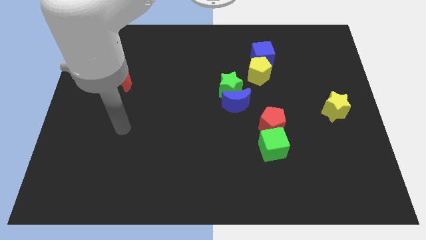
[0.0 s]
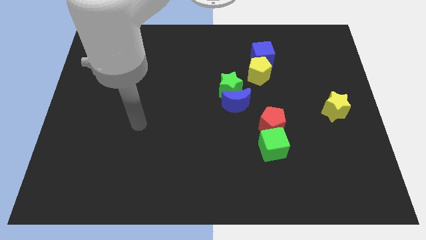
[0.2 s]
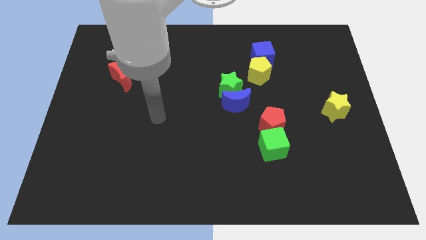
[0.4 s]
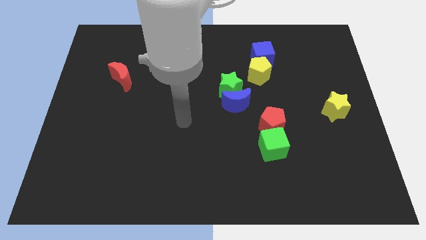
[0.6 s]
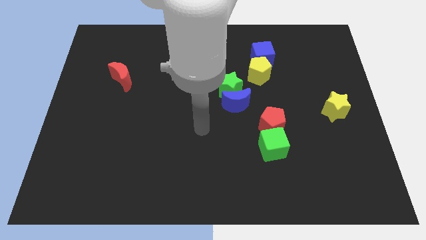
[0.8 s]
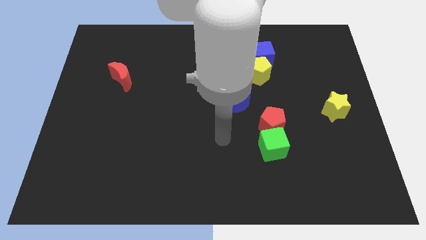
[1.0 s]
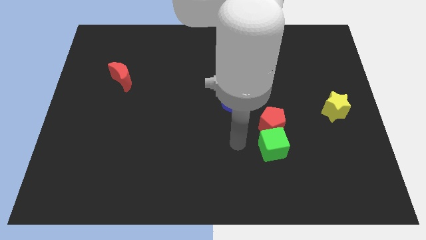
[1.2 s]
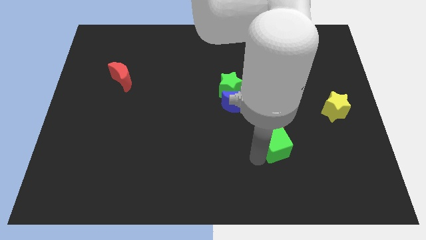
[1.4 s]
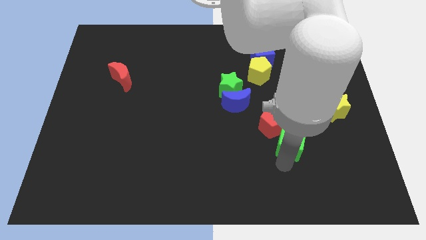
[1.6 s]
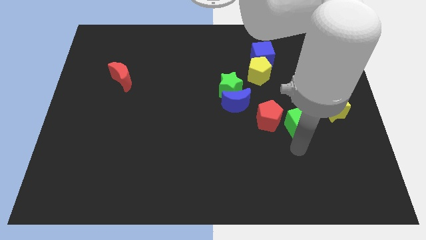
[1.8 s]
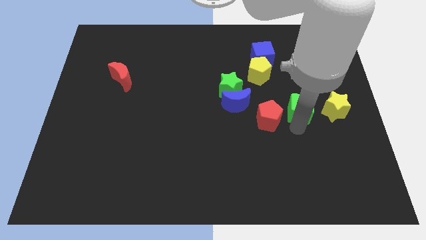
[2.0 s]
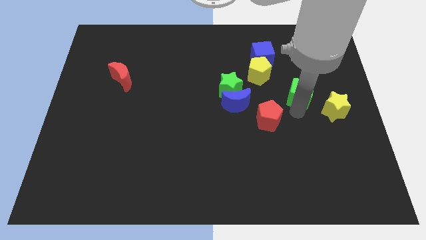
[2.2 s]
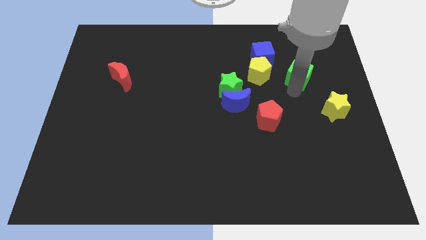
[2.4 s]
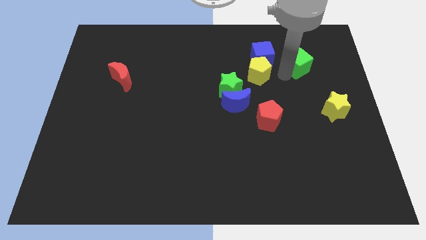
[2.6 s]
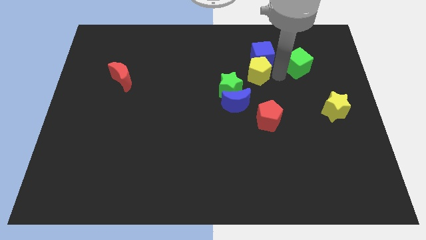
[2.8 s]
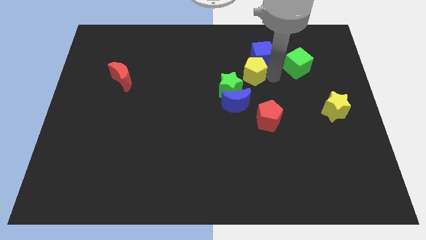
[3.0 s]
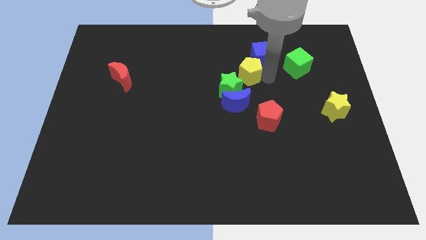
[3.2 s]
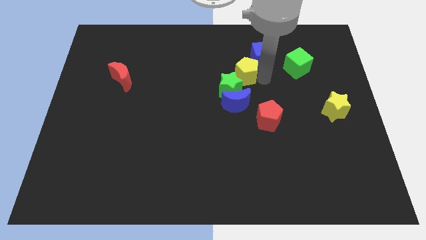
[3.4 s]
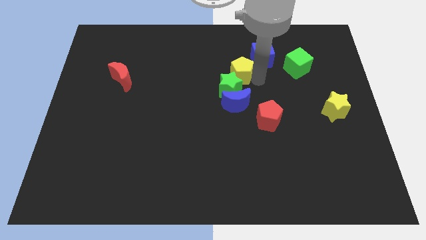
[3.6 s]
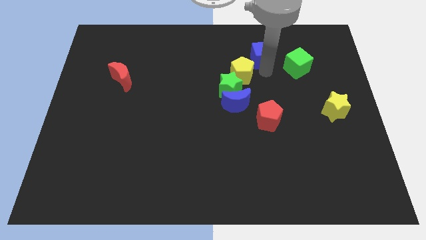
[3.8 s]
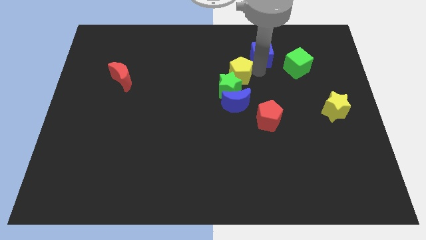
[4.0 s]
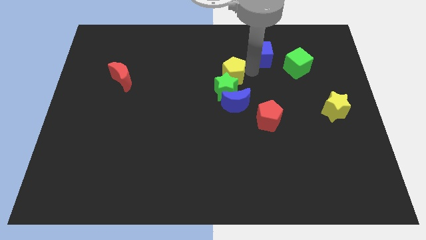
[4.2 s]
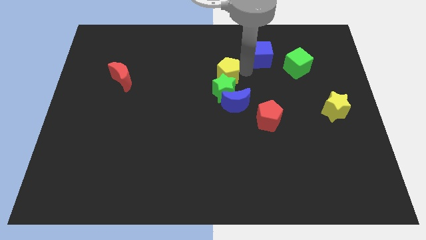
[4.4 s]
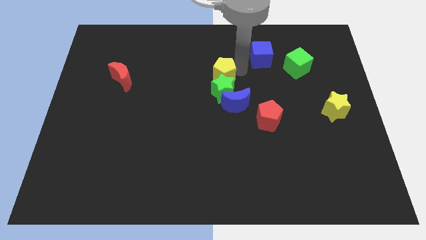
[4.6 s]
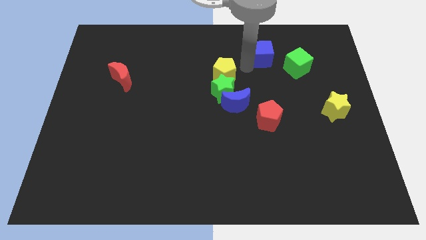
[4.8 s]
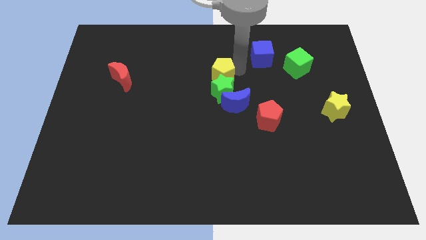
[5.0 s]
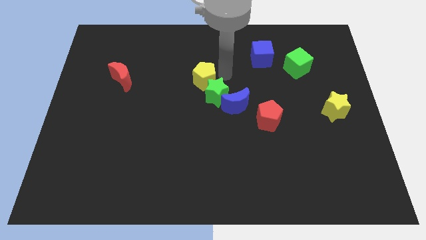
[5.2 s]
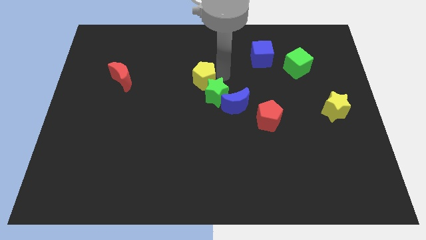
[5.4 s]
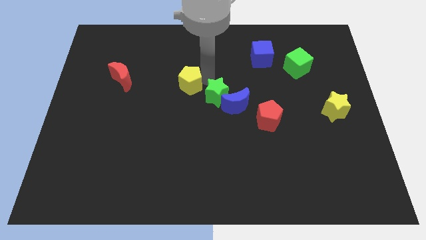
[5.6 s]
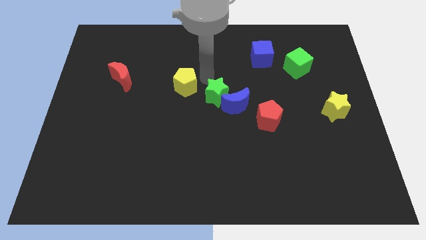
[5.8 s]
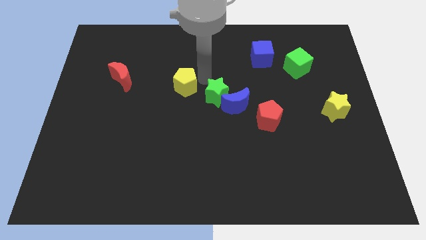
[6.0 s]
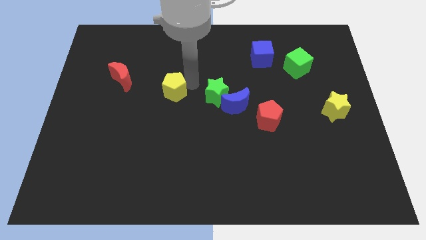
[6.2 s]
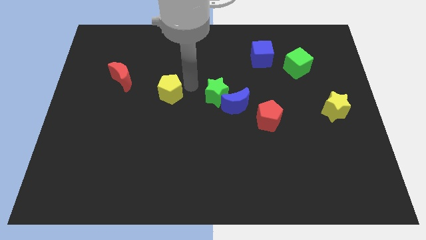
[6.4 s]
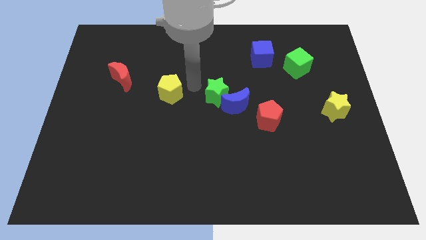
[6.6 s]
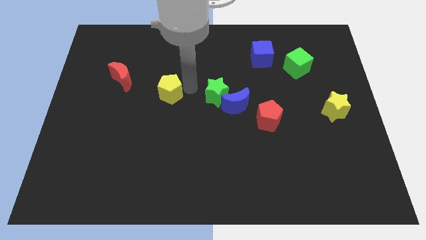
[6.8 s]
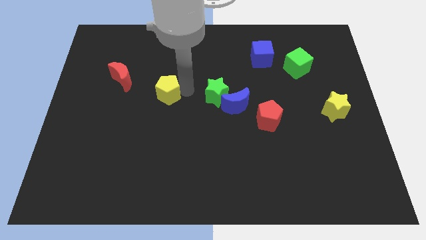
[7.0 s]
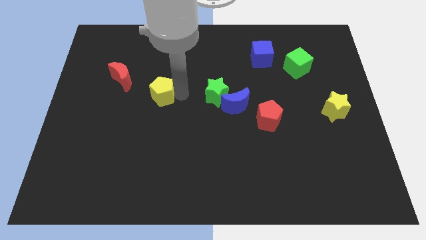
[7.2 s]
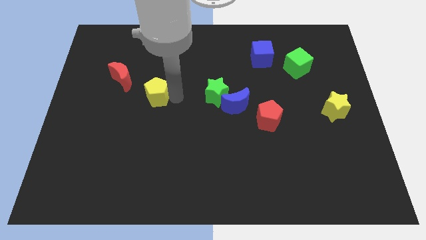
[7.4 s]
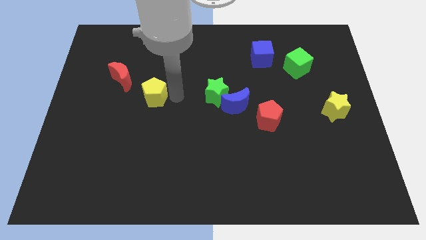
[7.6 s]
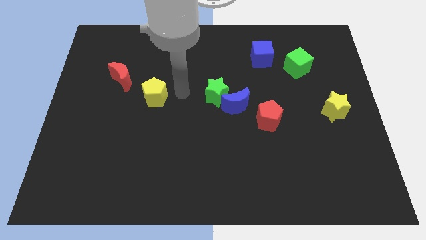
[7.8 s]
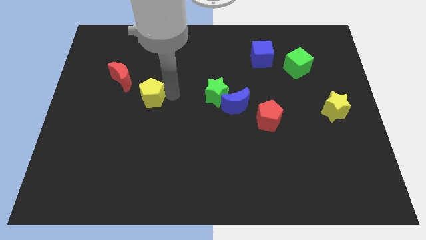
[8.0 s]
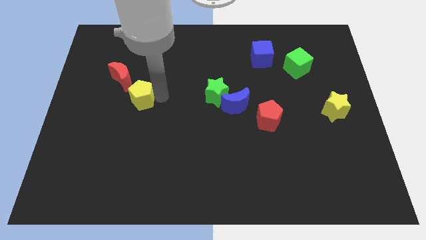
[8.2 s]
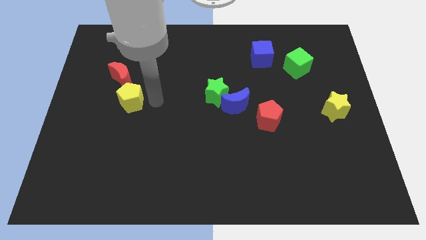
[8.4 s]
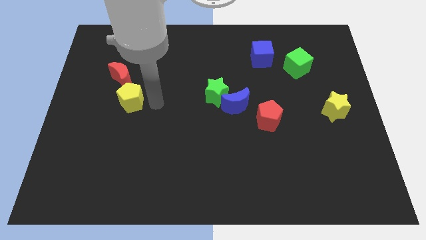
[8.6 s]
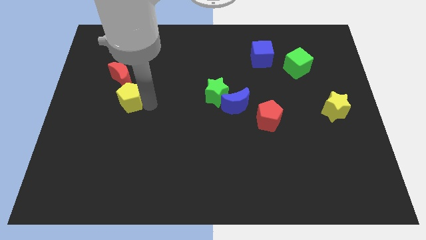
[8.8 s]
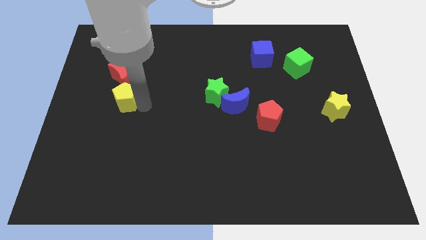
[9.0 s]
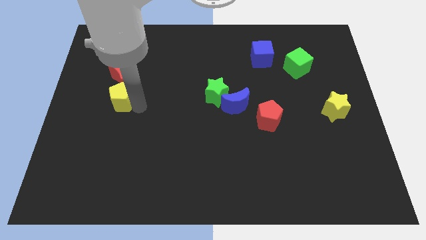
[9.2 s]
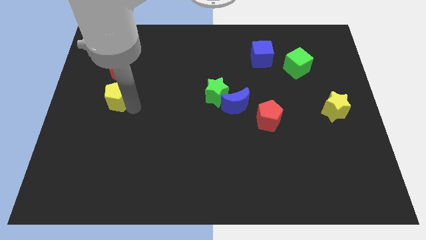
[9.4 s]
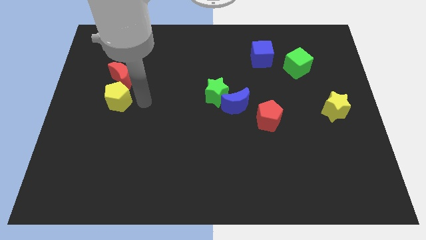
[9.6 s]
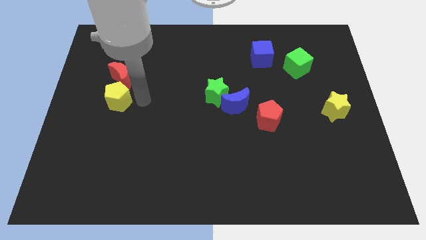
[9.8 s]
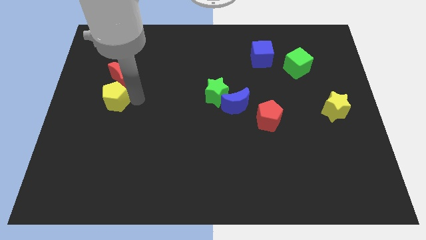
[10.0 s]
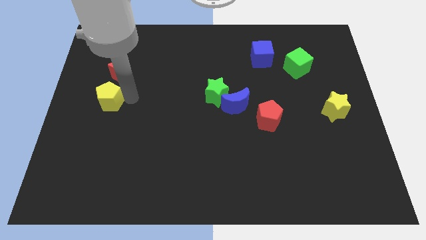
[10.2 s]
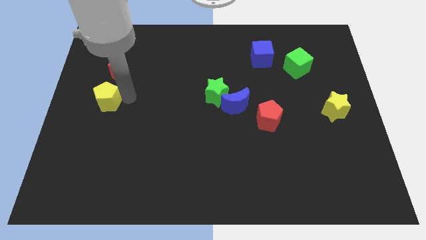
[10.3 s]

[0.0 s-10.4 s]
move the yellow pentagon to the center left

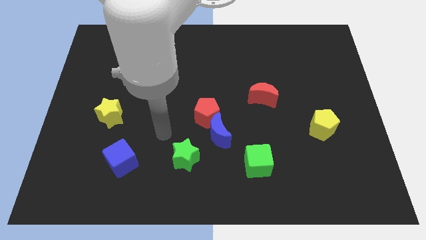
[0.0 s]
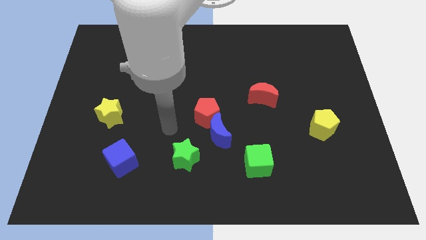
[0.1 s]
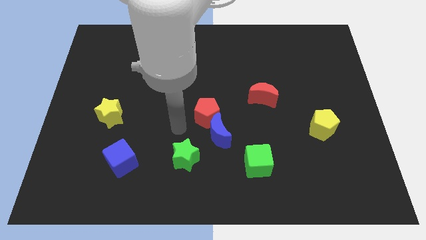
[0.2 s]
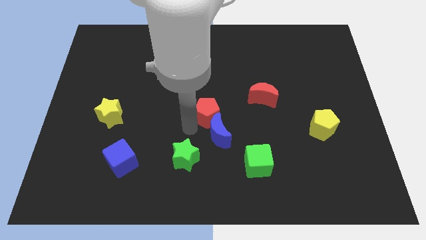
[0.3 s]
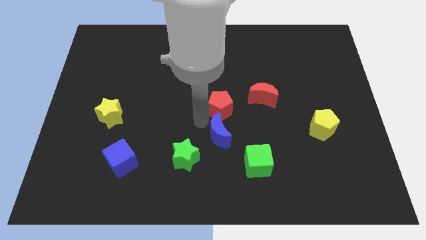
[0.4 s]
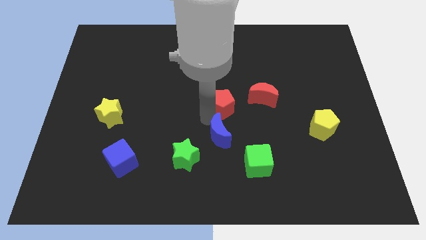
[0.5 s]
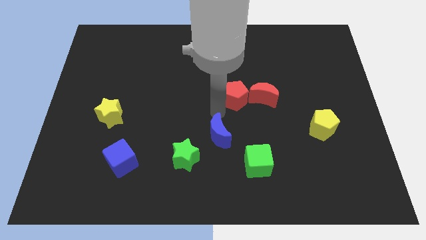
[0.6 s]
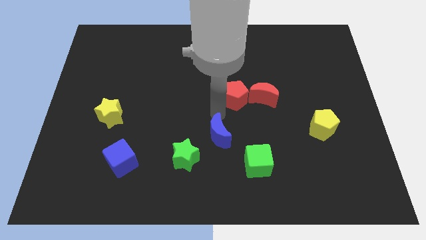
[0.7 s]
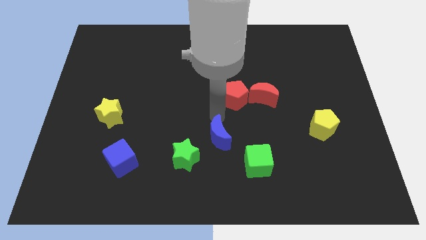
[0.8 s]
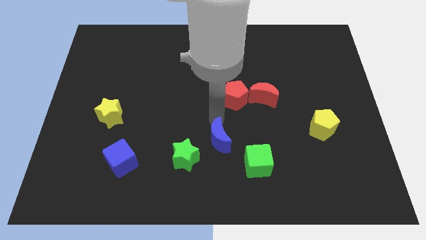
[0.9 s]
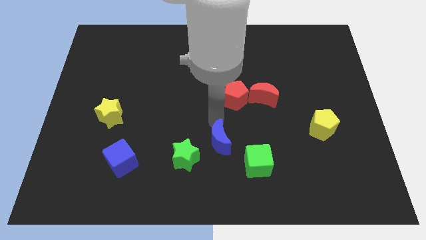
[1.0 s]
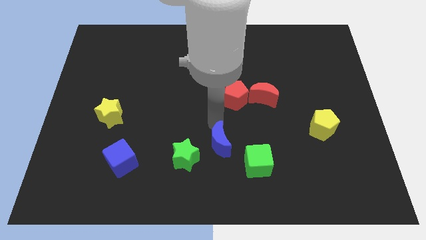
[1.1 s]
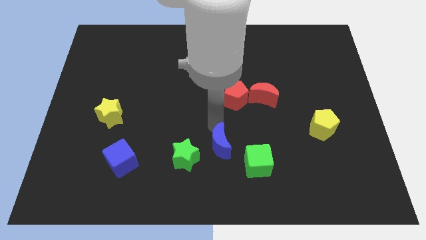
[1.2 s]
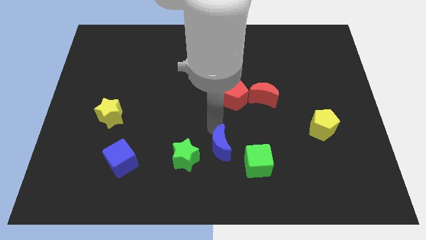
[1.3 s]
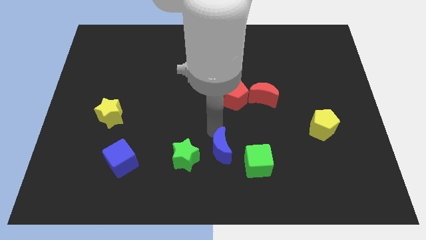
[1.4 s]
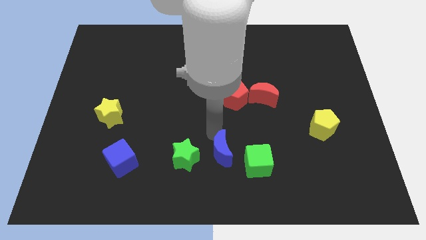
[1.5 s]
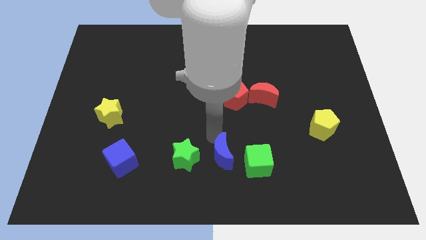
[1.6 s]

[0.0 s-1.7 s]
move the blue moon to the bottom
